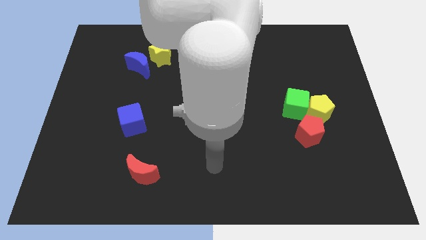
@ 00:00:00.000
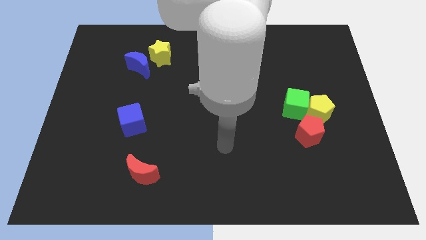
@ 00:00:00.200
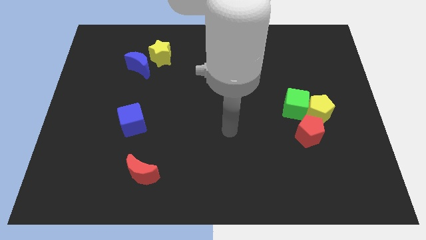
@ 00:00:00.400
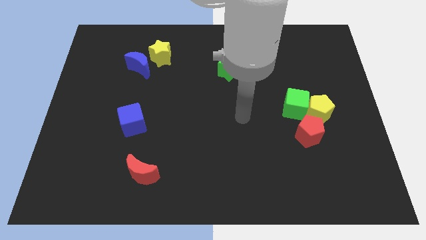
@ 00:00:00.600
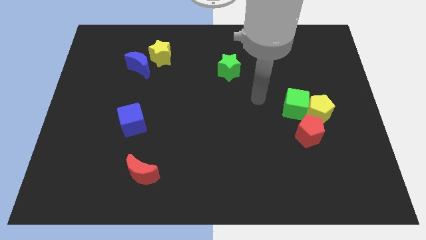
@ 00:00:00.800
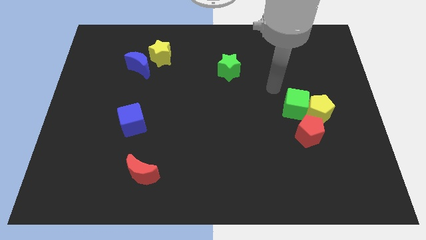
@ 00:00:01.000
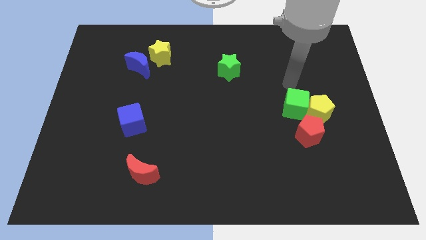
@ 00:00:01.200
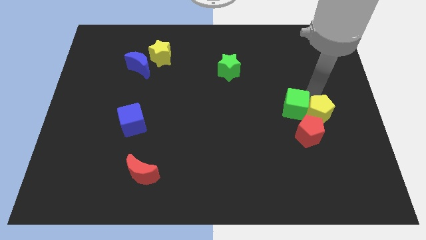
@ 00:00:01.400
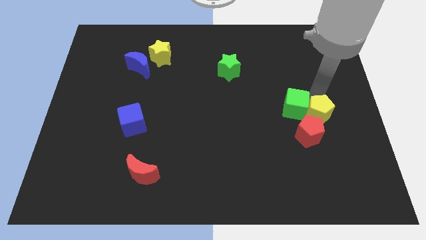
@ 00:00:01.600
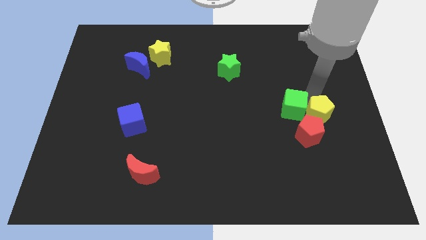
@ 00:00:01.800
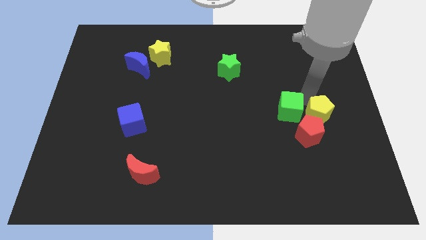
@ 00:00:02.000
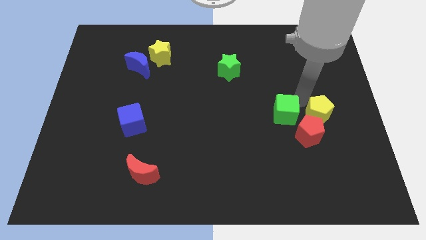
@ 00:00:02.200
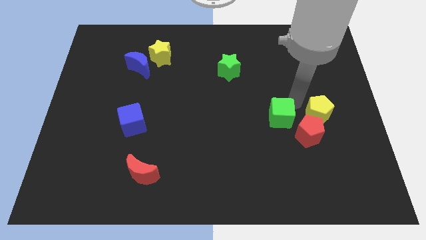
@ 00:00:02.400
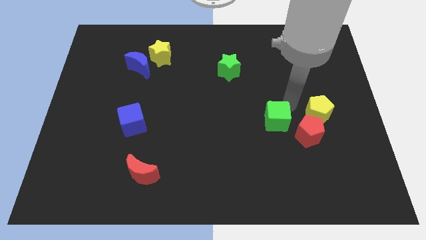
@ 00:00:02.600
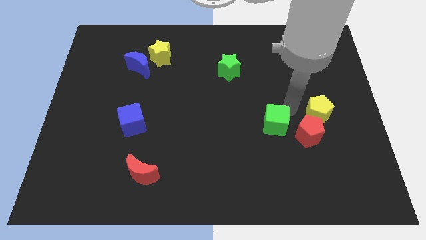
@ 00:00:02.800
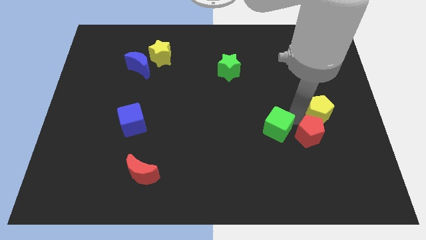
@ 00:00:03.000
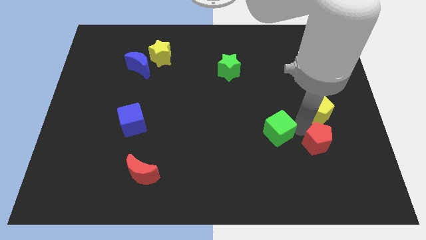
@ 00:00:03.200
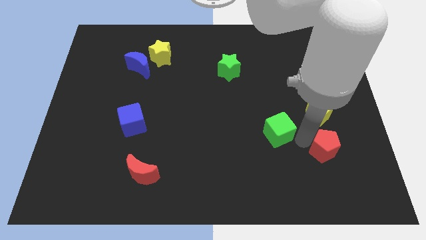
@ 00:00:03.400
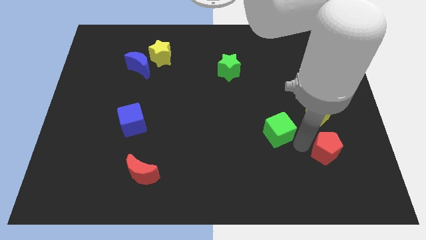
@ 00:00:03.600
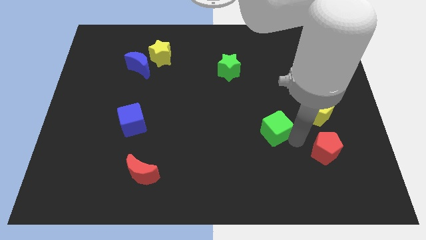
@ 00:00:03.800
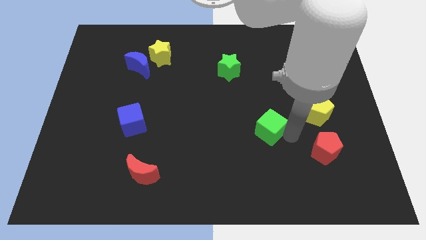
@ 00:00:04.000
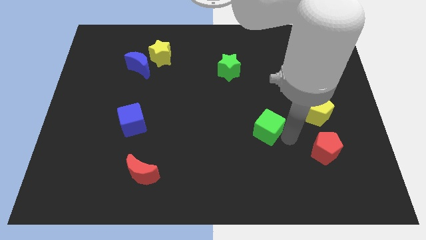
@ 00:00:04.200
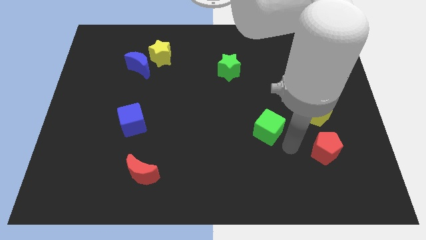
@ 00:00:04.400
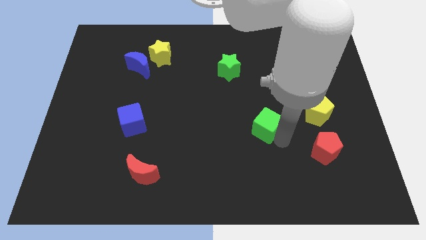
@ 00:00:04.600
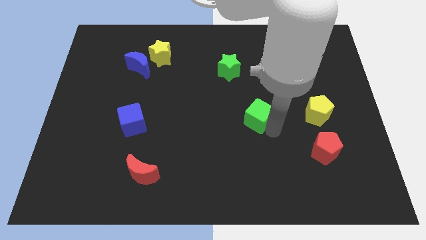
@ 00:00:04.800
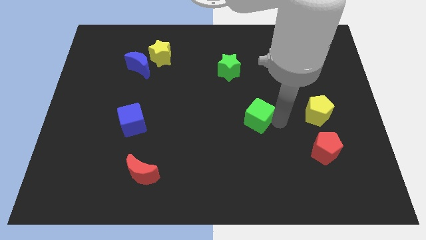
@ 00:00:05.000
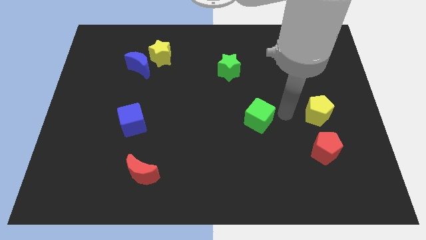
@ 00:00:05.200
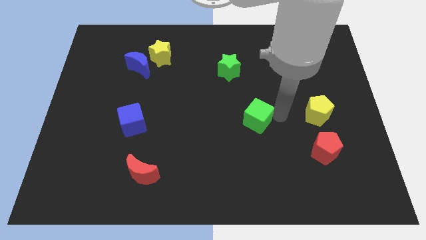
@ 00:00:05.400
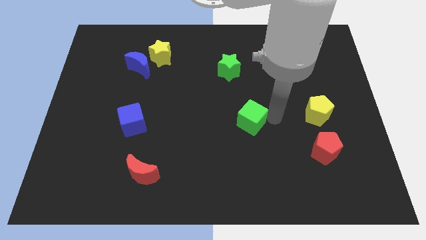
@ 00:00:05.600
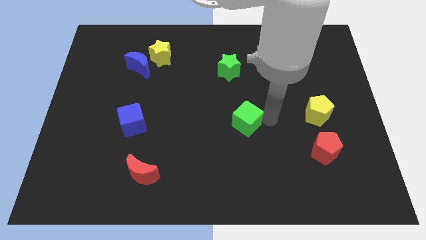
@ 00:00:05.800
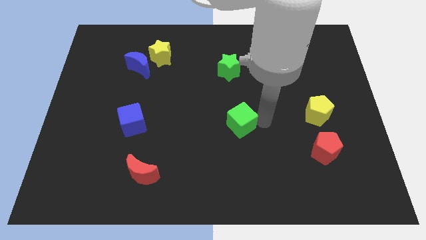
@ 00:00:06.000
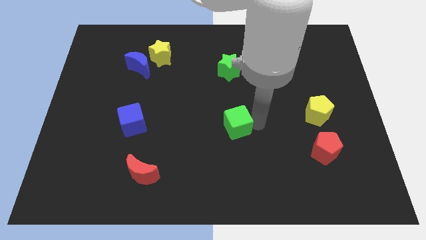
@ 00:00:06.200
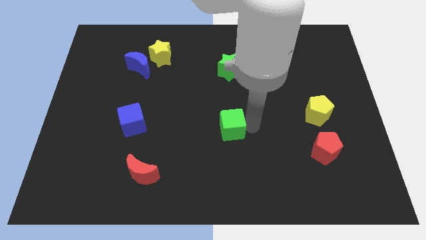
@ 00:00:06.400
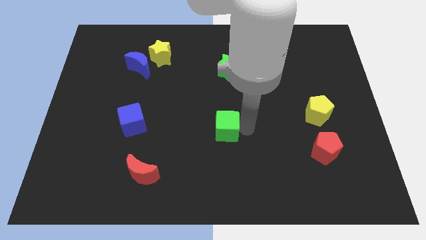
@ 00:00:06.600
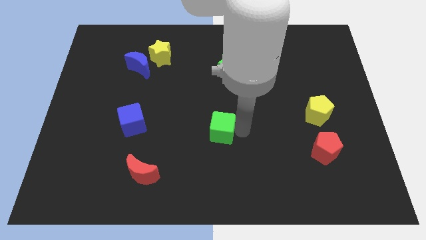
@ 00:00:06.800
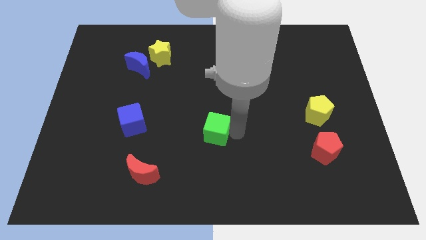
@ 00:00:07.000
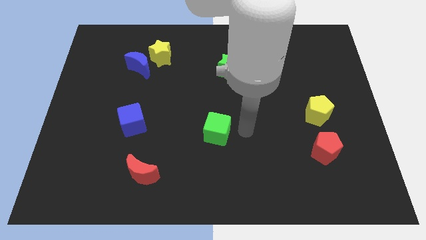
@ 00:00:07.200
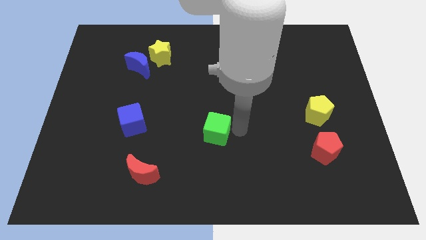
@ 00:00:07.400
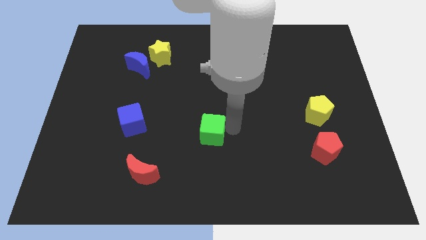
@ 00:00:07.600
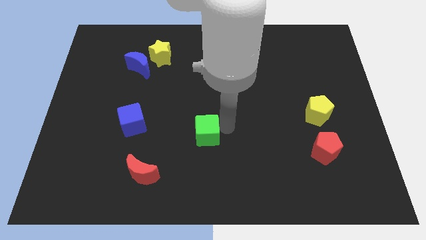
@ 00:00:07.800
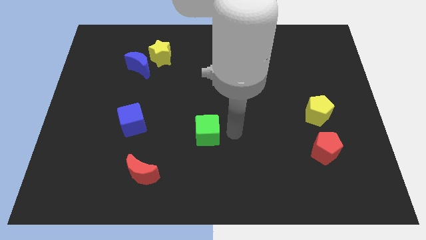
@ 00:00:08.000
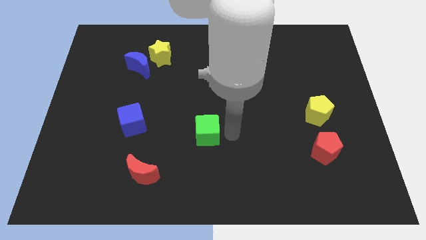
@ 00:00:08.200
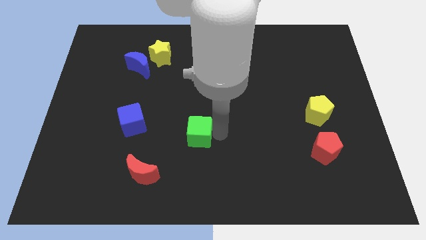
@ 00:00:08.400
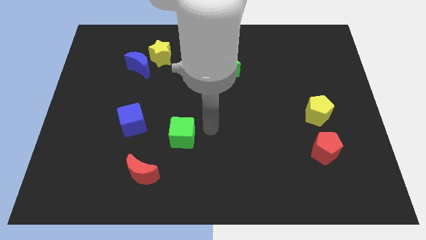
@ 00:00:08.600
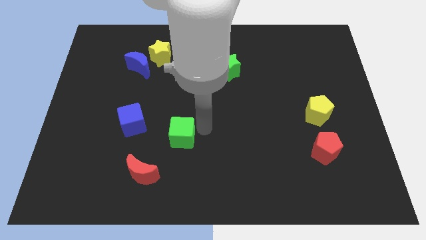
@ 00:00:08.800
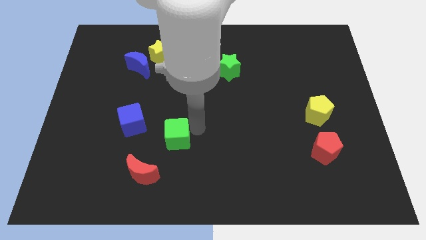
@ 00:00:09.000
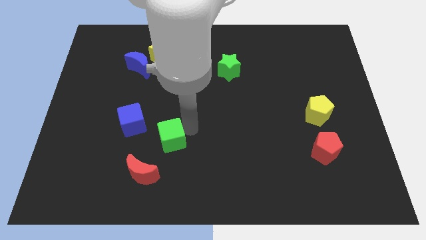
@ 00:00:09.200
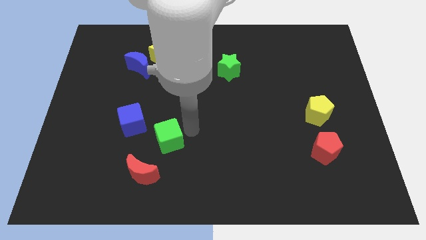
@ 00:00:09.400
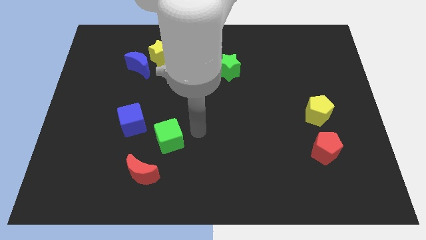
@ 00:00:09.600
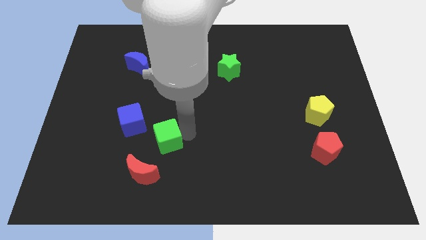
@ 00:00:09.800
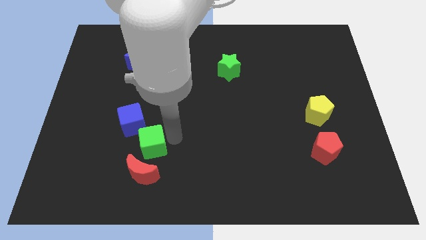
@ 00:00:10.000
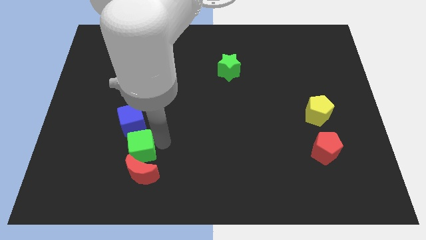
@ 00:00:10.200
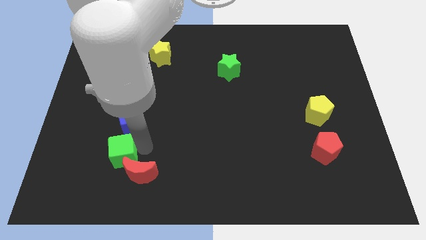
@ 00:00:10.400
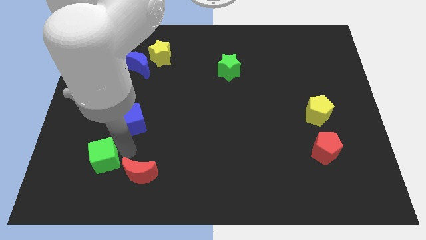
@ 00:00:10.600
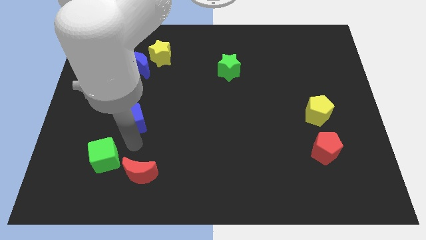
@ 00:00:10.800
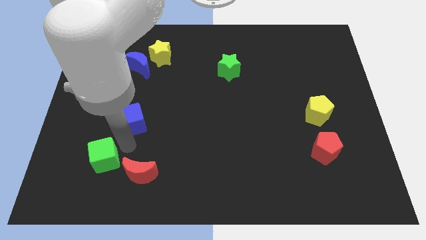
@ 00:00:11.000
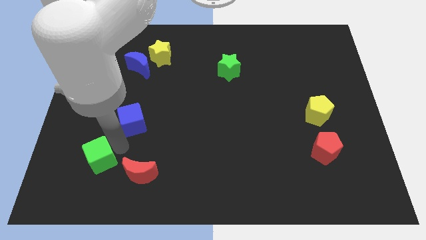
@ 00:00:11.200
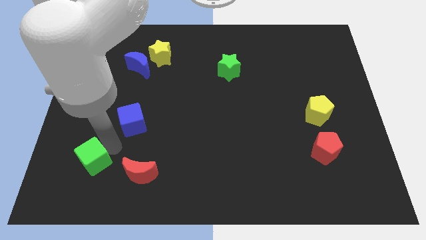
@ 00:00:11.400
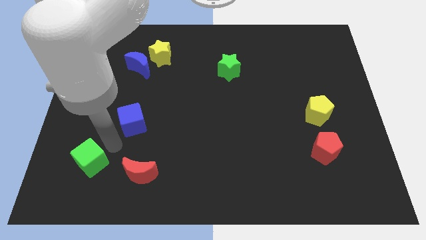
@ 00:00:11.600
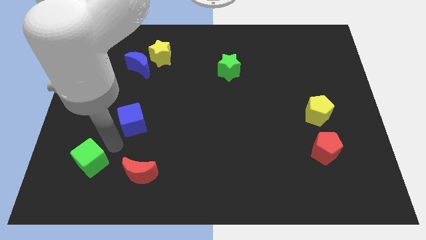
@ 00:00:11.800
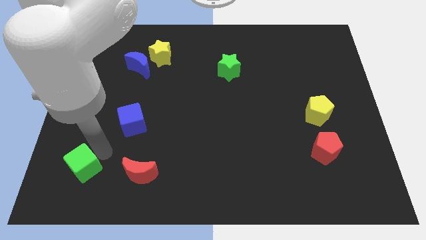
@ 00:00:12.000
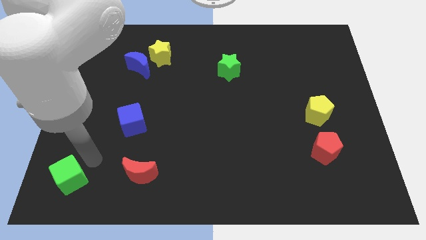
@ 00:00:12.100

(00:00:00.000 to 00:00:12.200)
put the green cube to the bottom left corner
